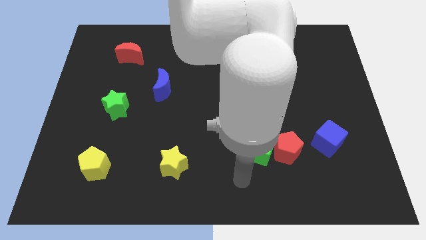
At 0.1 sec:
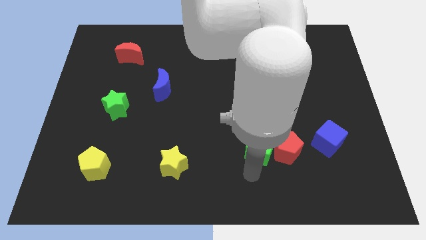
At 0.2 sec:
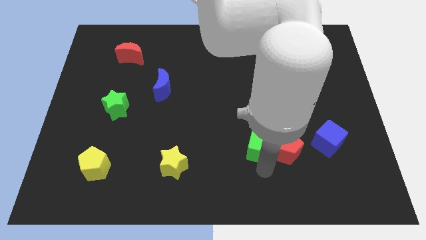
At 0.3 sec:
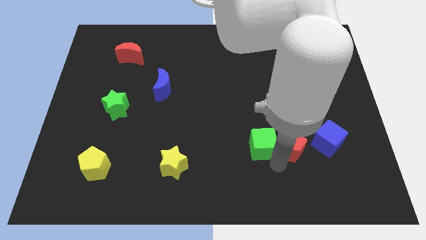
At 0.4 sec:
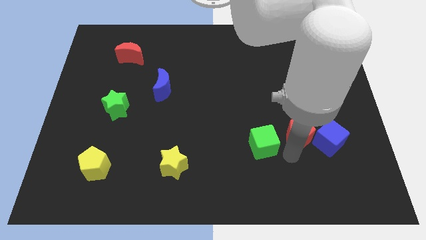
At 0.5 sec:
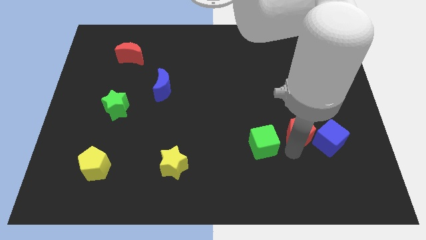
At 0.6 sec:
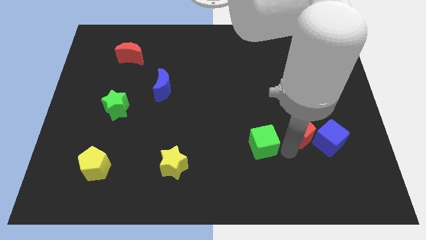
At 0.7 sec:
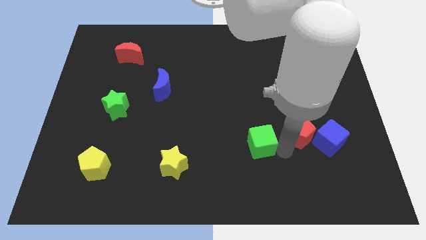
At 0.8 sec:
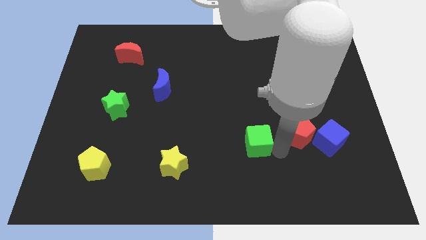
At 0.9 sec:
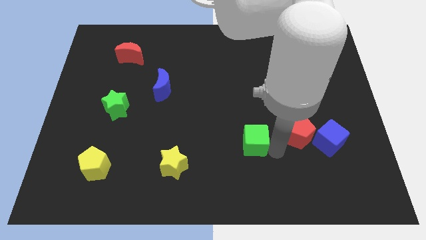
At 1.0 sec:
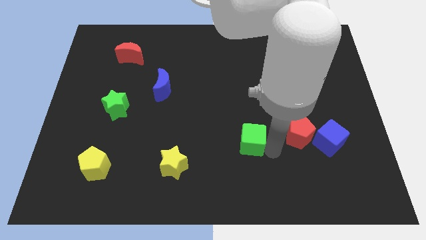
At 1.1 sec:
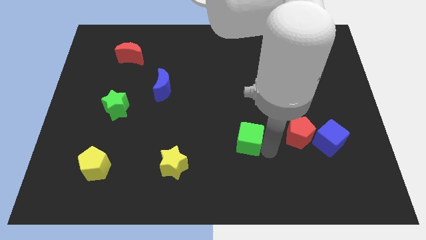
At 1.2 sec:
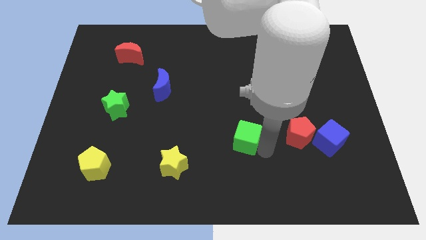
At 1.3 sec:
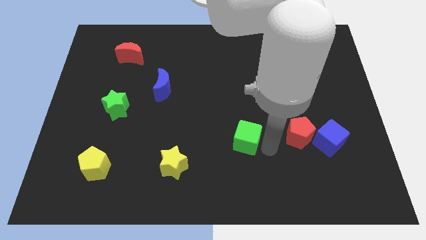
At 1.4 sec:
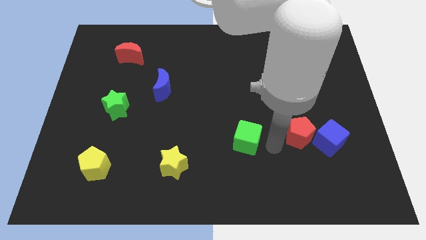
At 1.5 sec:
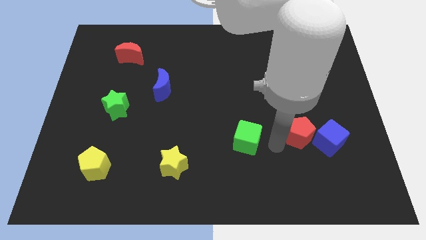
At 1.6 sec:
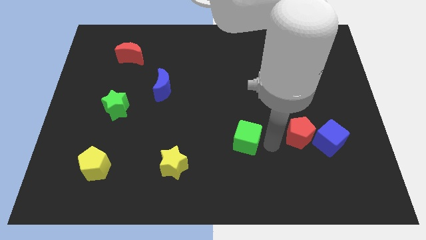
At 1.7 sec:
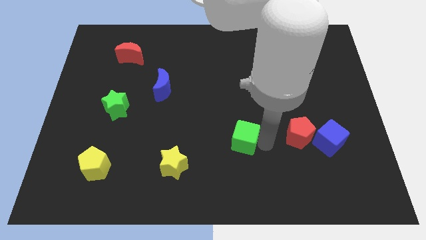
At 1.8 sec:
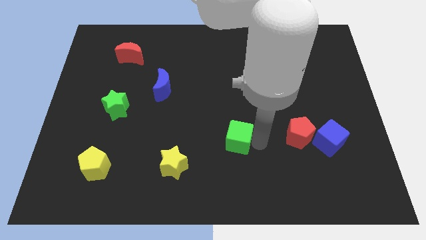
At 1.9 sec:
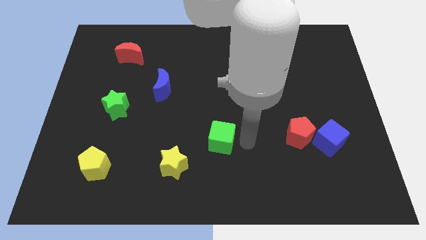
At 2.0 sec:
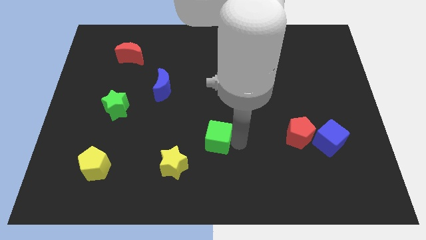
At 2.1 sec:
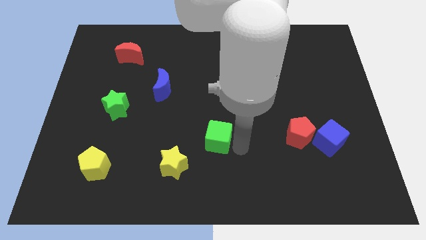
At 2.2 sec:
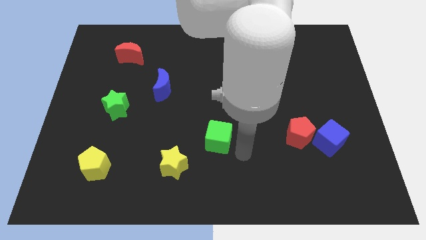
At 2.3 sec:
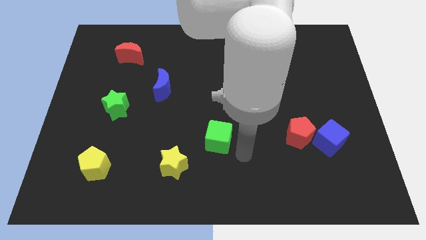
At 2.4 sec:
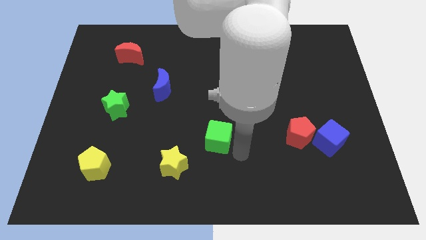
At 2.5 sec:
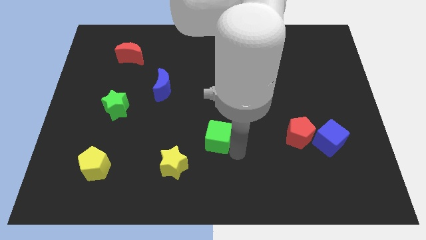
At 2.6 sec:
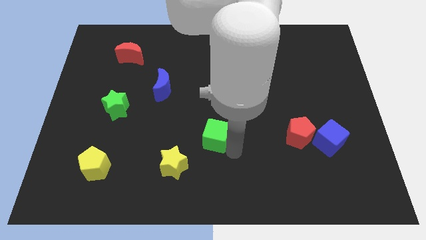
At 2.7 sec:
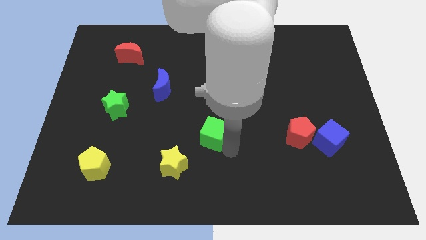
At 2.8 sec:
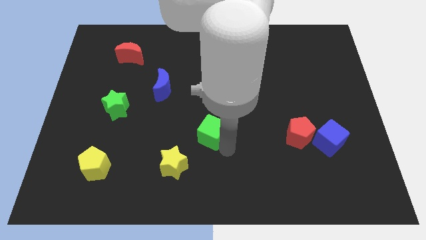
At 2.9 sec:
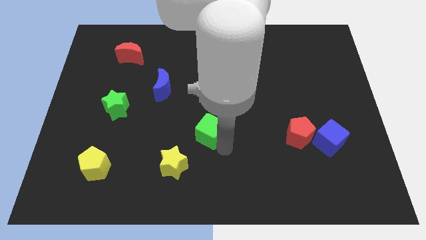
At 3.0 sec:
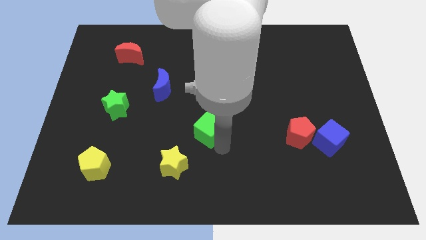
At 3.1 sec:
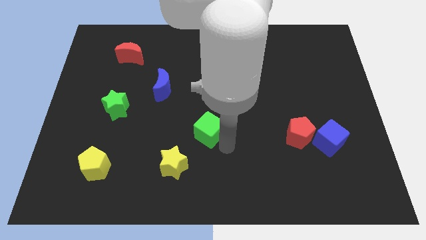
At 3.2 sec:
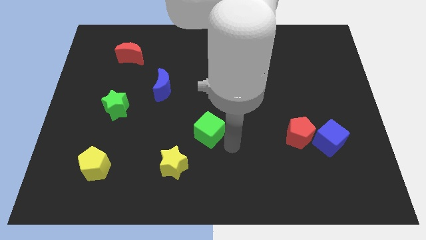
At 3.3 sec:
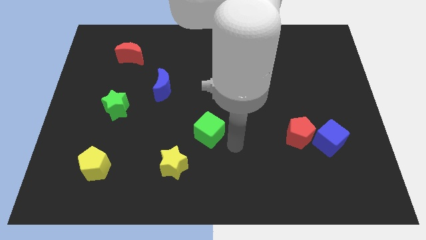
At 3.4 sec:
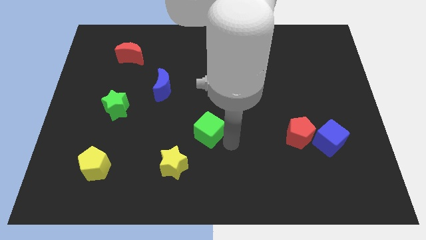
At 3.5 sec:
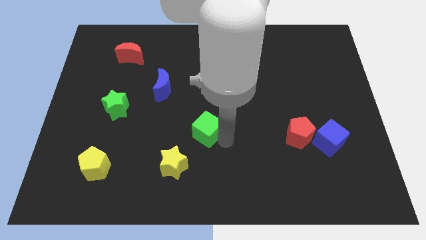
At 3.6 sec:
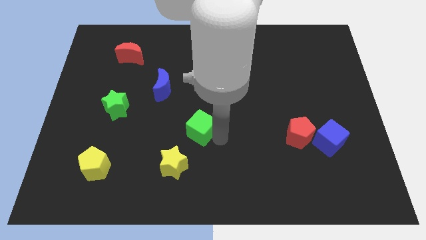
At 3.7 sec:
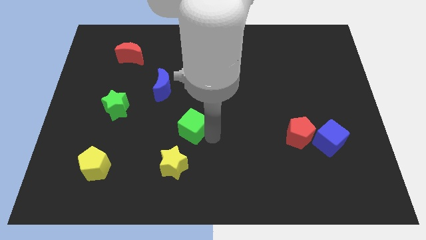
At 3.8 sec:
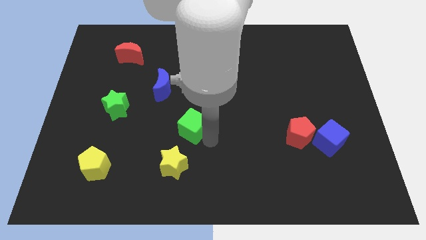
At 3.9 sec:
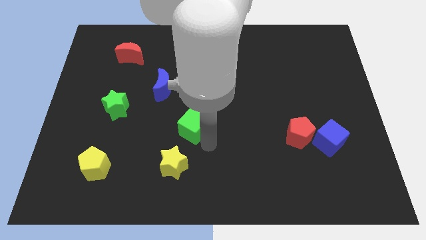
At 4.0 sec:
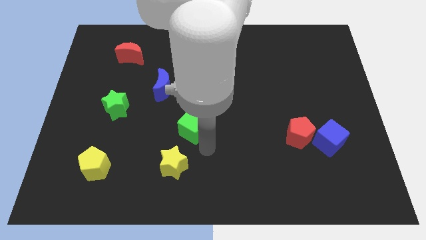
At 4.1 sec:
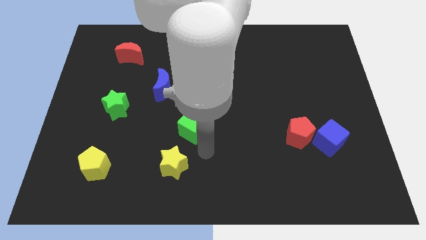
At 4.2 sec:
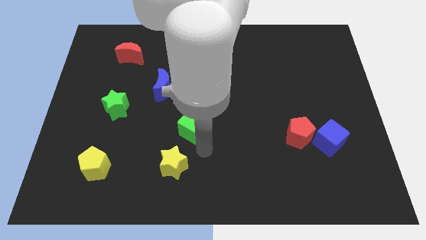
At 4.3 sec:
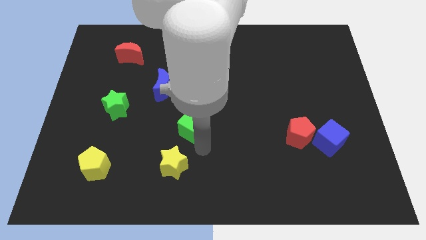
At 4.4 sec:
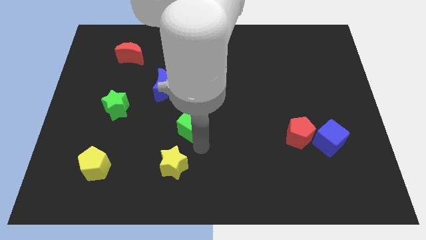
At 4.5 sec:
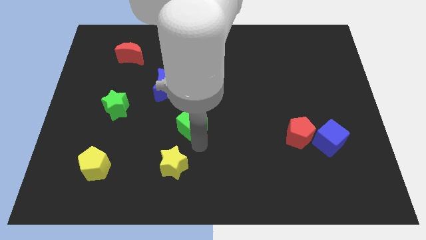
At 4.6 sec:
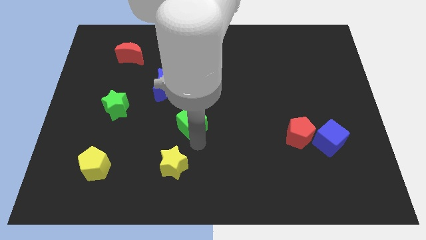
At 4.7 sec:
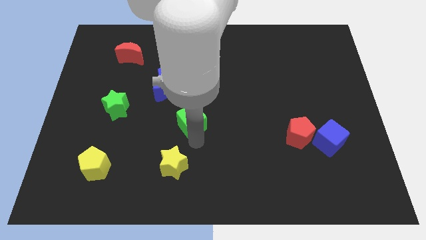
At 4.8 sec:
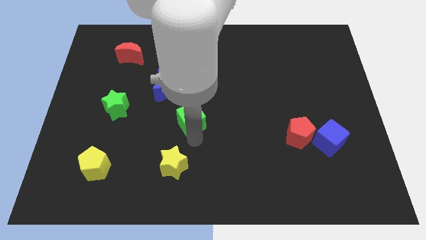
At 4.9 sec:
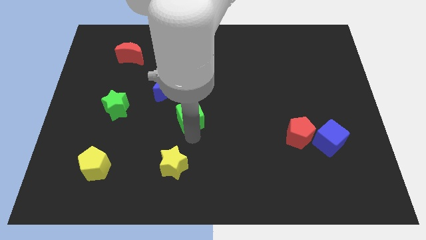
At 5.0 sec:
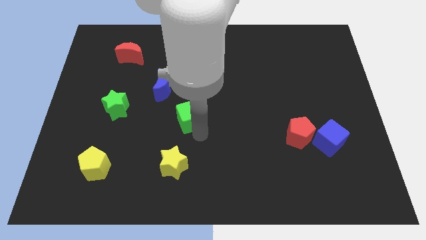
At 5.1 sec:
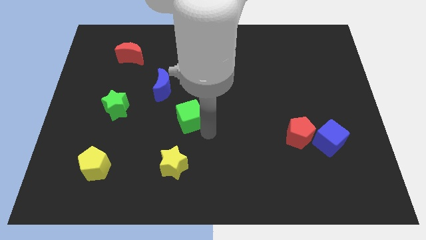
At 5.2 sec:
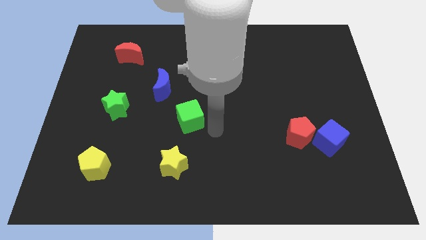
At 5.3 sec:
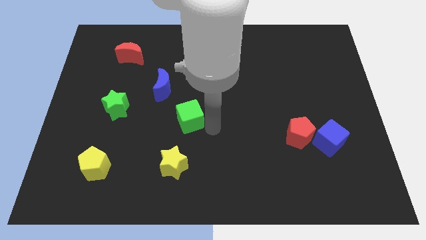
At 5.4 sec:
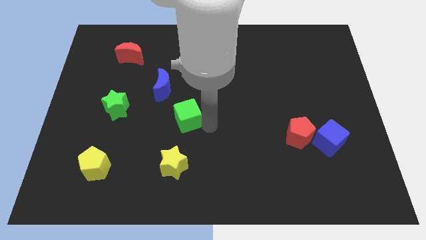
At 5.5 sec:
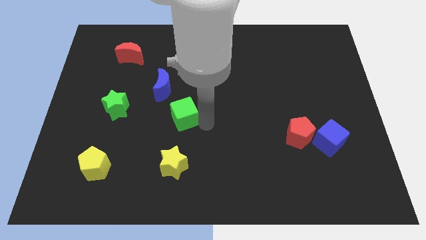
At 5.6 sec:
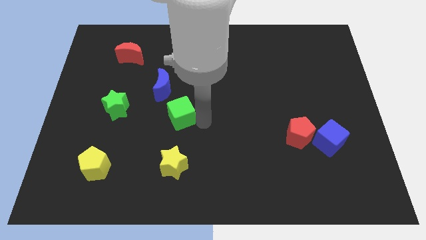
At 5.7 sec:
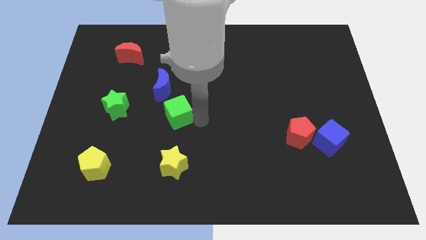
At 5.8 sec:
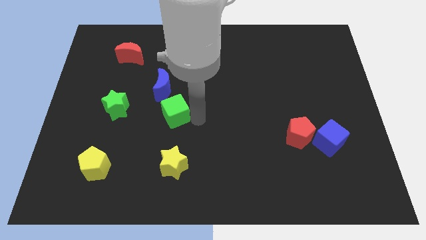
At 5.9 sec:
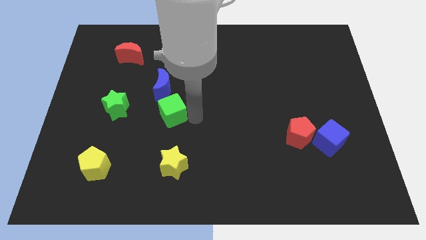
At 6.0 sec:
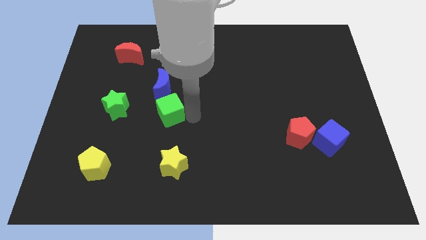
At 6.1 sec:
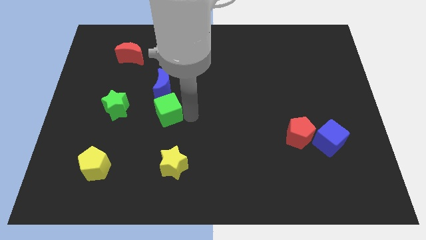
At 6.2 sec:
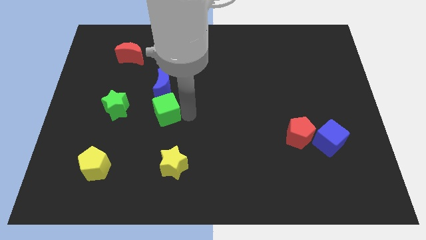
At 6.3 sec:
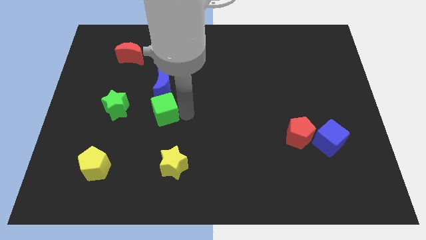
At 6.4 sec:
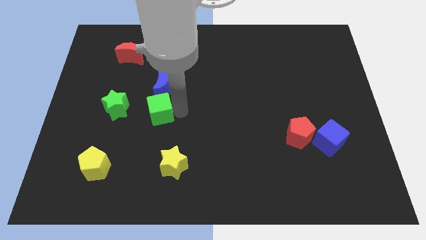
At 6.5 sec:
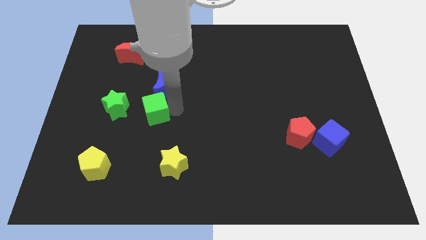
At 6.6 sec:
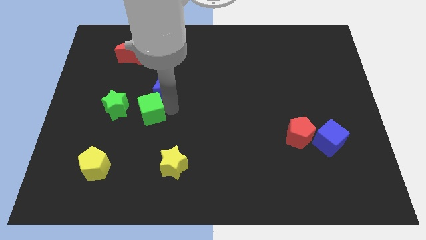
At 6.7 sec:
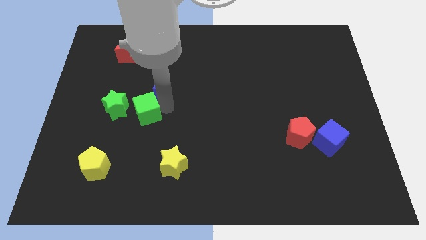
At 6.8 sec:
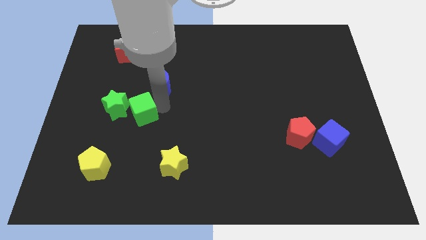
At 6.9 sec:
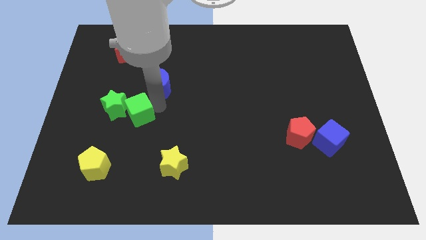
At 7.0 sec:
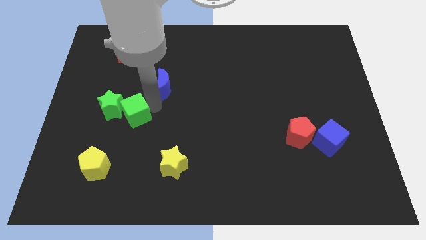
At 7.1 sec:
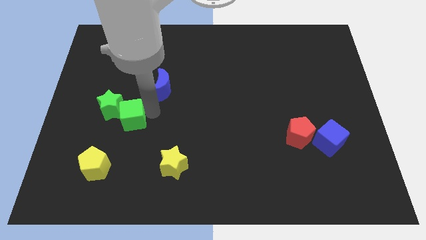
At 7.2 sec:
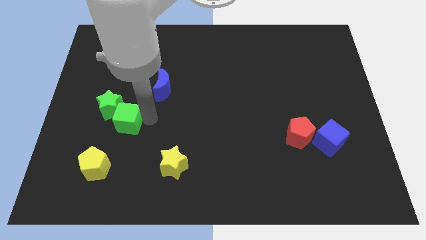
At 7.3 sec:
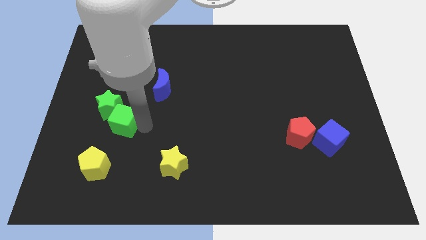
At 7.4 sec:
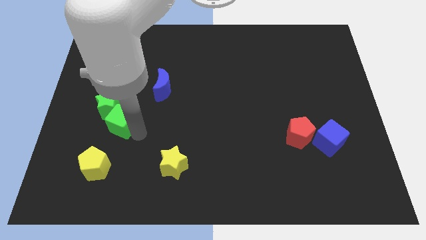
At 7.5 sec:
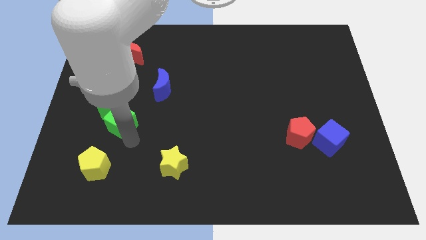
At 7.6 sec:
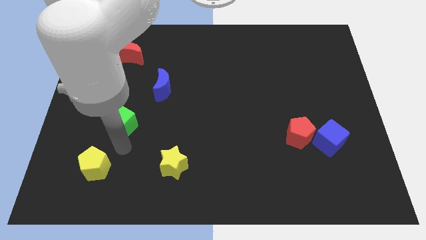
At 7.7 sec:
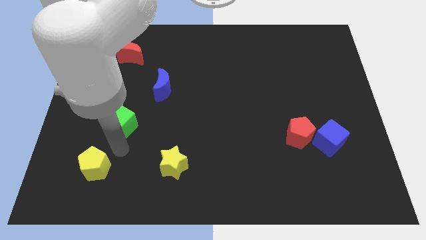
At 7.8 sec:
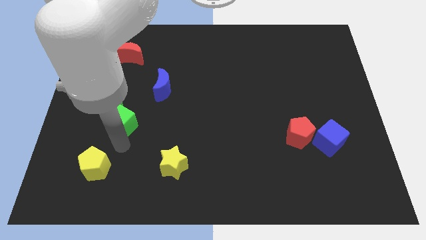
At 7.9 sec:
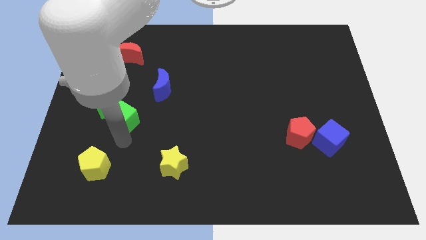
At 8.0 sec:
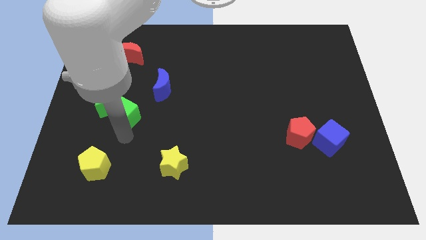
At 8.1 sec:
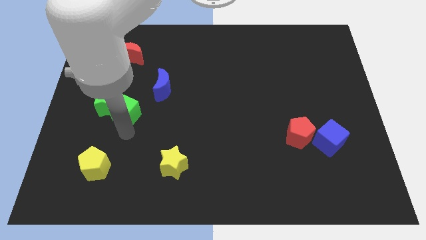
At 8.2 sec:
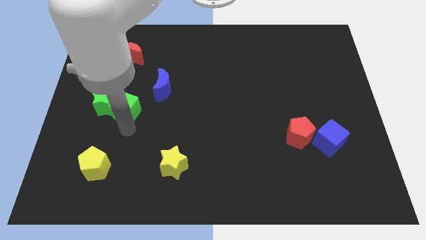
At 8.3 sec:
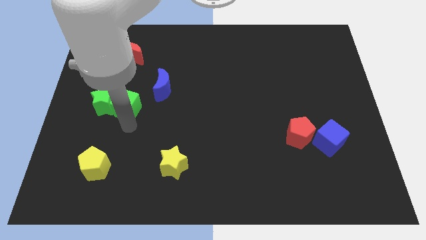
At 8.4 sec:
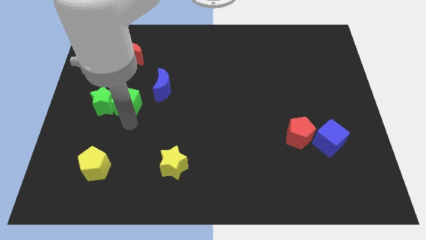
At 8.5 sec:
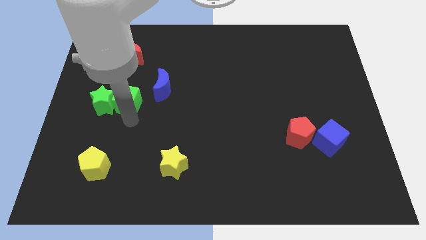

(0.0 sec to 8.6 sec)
push the green cube to the bottom of the red moon

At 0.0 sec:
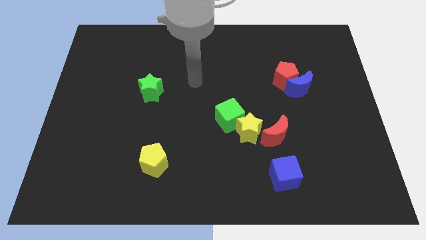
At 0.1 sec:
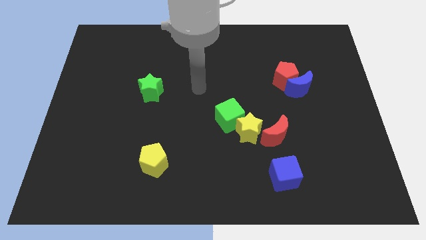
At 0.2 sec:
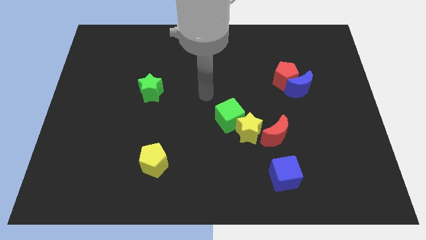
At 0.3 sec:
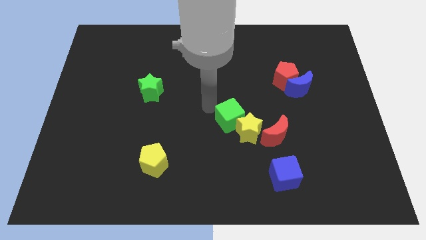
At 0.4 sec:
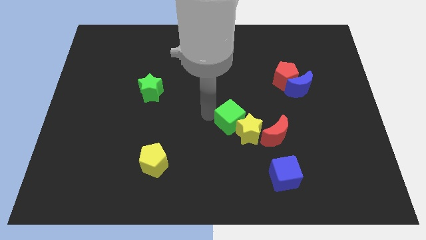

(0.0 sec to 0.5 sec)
put the blue cube diagonally down and to the right of the yellow star
